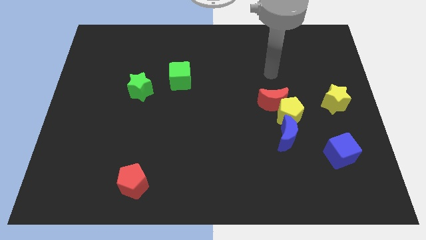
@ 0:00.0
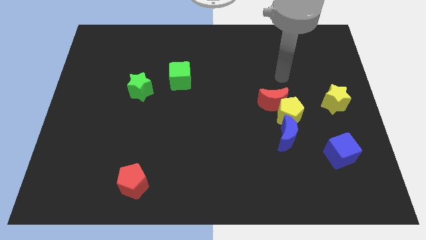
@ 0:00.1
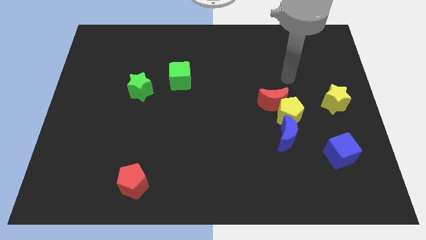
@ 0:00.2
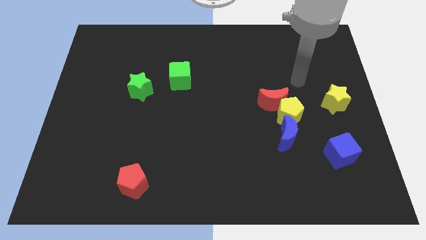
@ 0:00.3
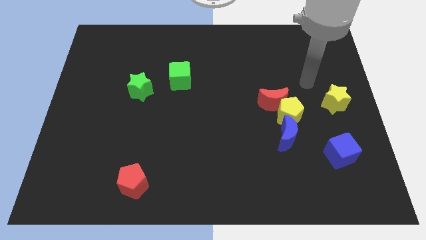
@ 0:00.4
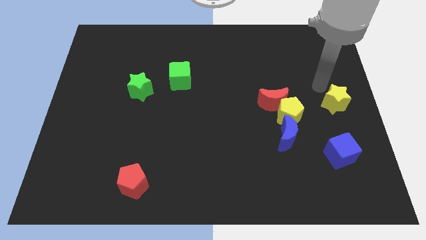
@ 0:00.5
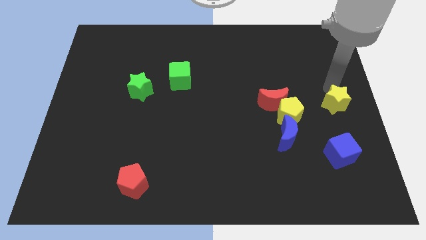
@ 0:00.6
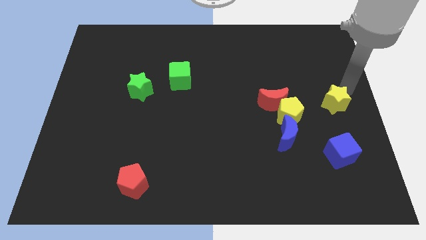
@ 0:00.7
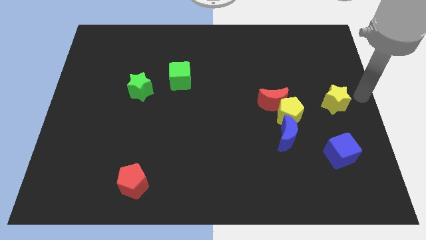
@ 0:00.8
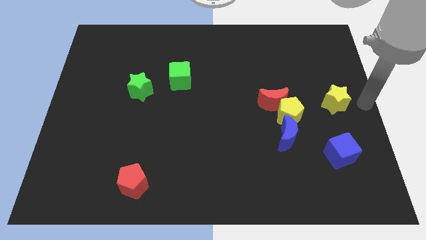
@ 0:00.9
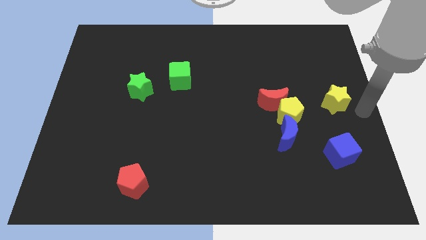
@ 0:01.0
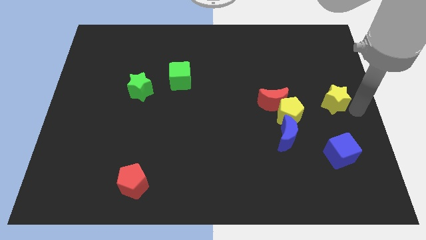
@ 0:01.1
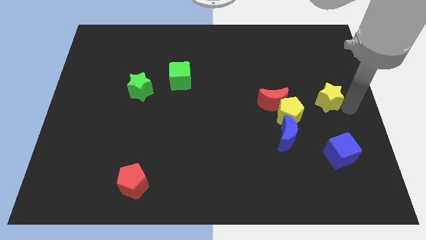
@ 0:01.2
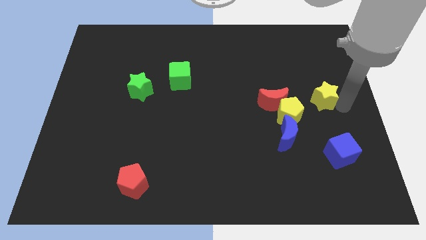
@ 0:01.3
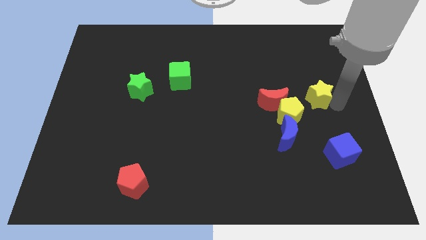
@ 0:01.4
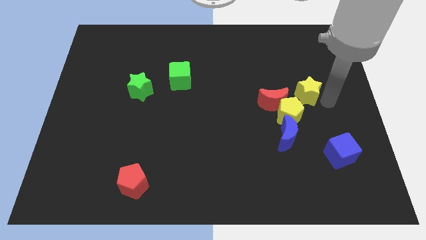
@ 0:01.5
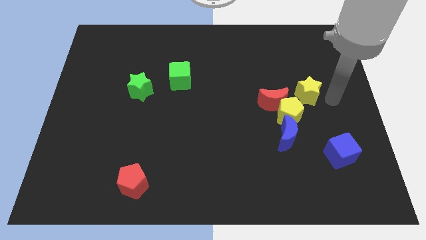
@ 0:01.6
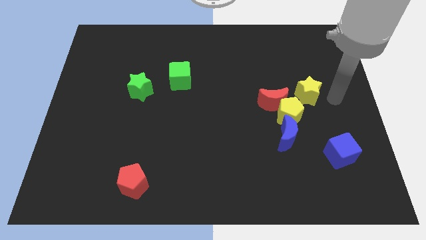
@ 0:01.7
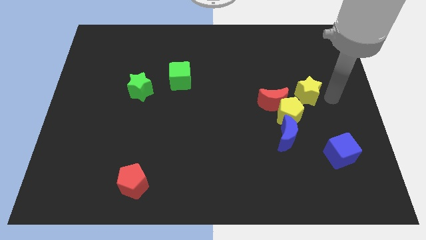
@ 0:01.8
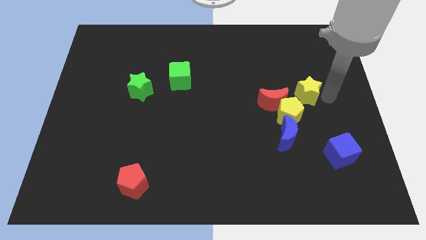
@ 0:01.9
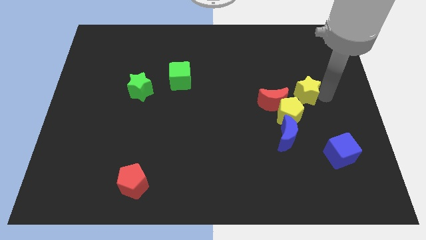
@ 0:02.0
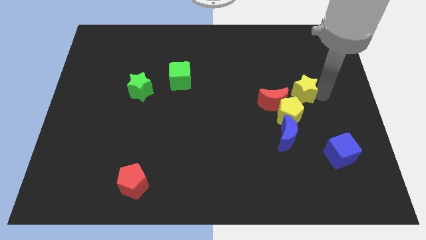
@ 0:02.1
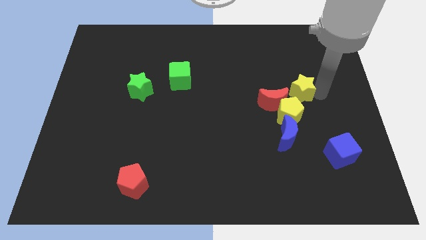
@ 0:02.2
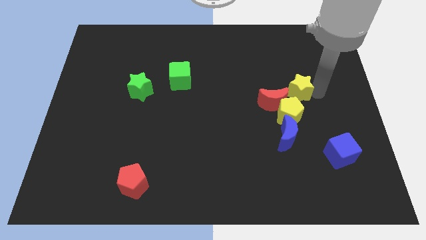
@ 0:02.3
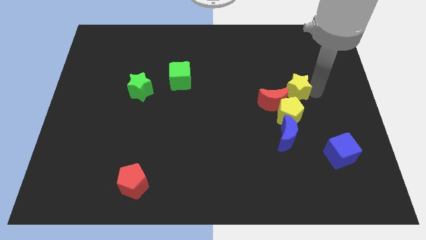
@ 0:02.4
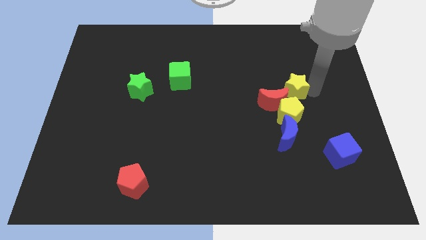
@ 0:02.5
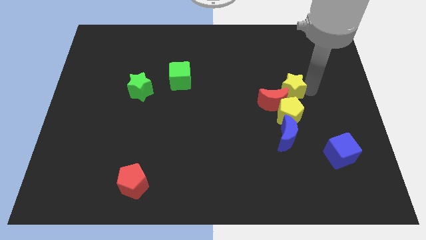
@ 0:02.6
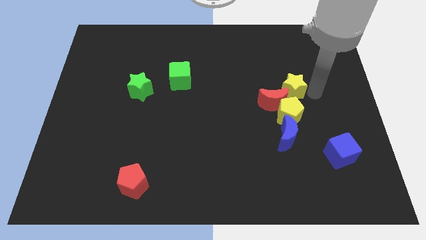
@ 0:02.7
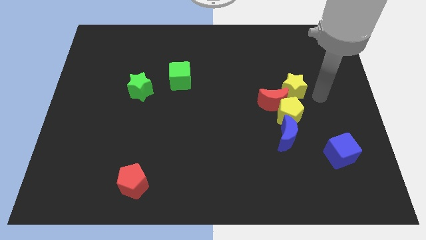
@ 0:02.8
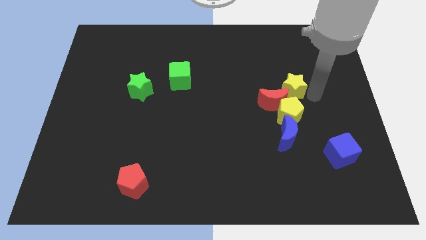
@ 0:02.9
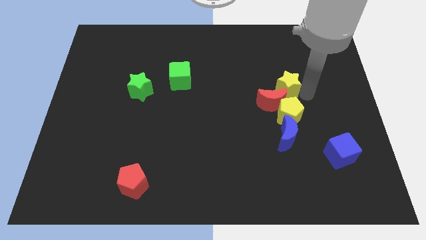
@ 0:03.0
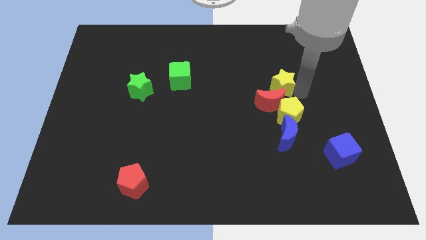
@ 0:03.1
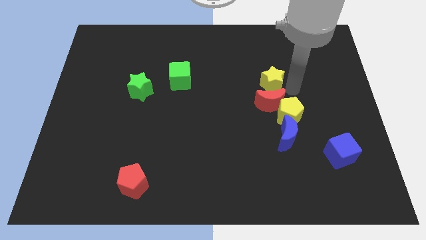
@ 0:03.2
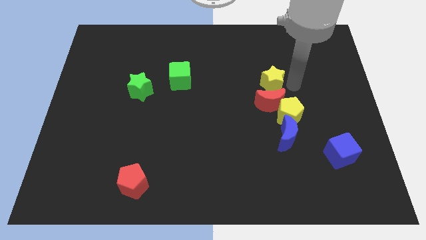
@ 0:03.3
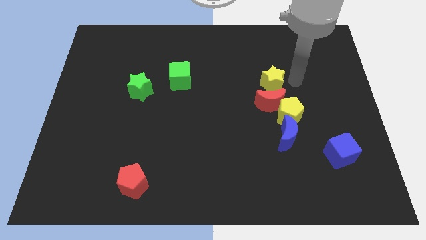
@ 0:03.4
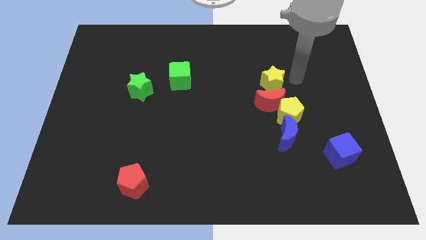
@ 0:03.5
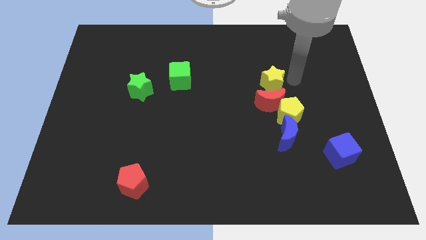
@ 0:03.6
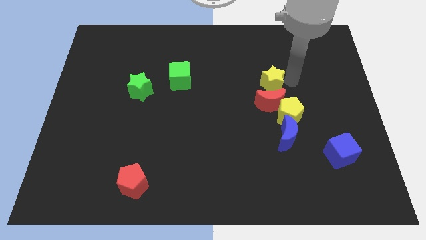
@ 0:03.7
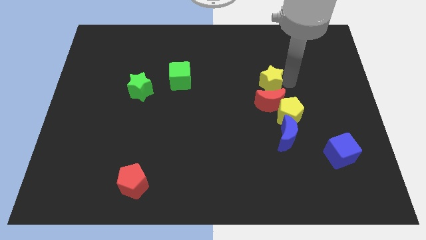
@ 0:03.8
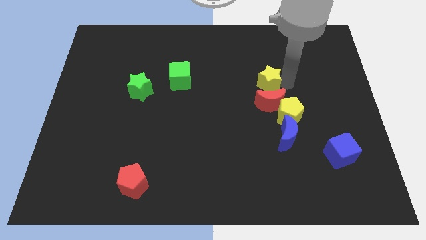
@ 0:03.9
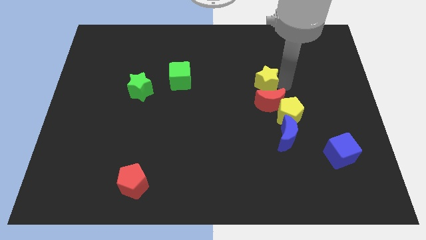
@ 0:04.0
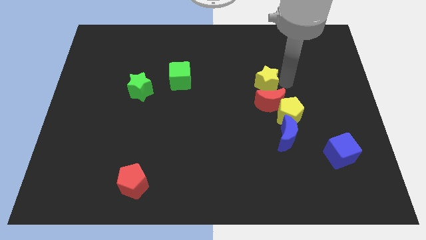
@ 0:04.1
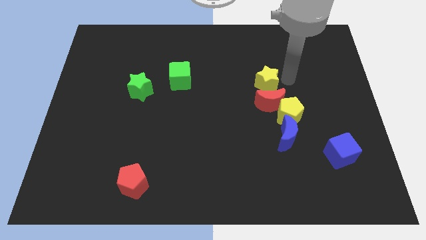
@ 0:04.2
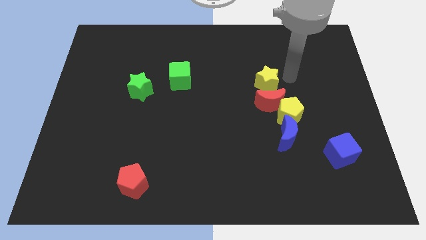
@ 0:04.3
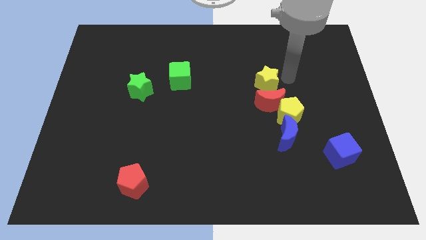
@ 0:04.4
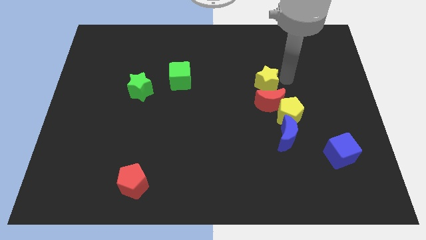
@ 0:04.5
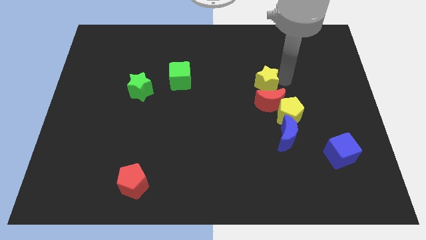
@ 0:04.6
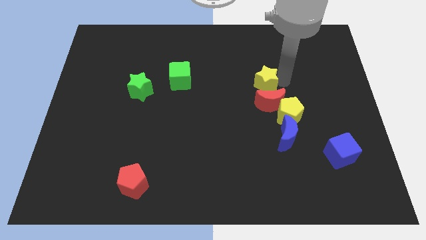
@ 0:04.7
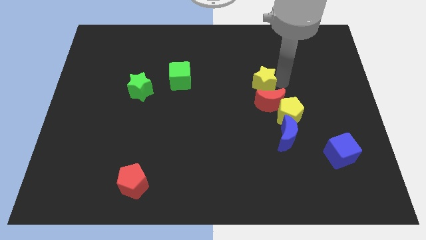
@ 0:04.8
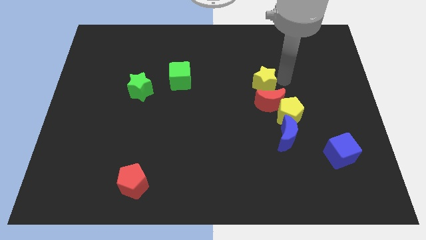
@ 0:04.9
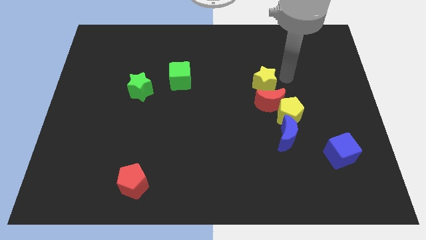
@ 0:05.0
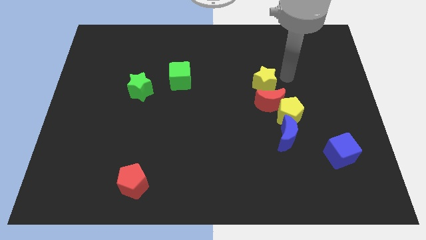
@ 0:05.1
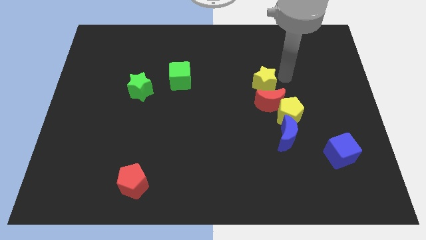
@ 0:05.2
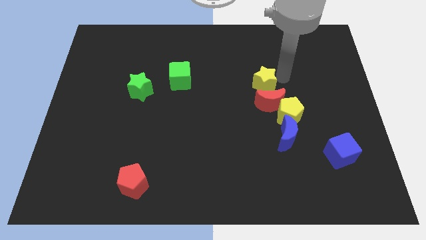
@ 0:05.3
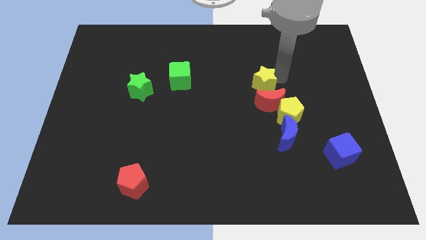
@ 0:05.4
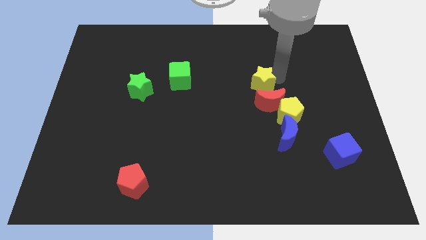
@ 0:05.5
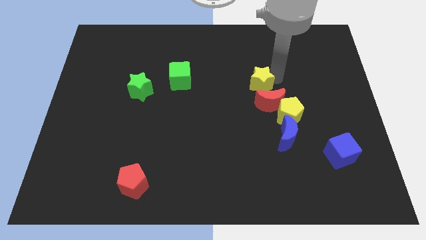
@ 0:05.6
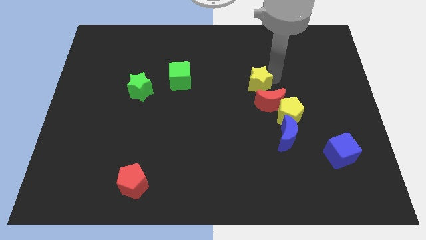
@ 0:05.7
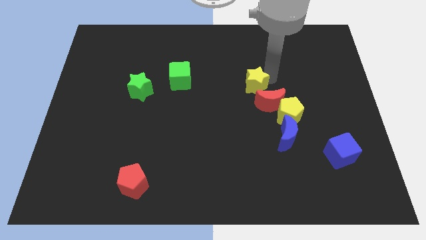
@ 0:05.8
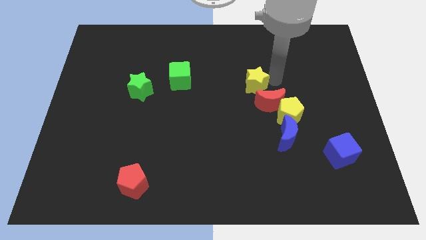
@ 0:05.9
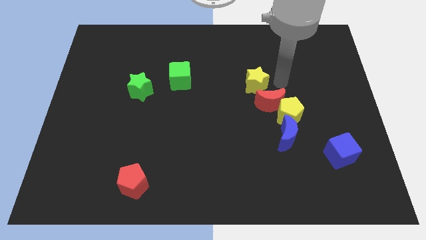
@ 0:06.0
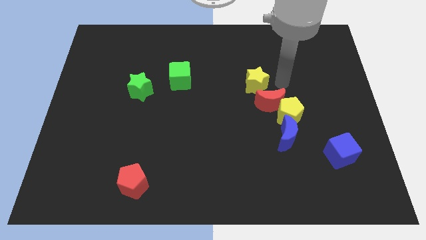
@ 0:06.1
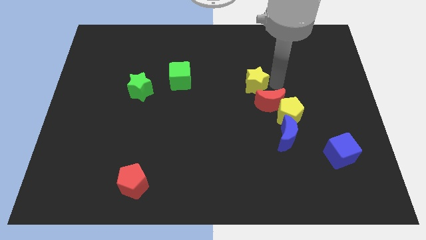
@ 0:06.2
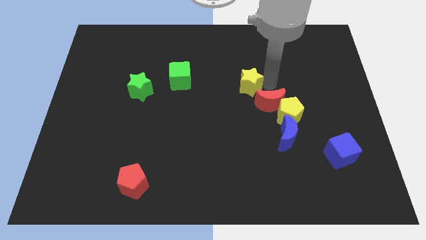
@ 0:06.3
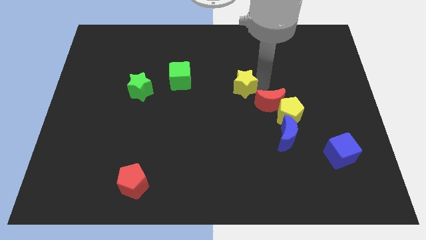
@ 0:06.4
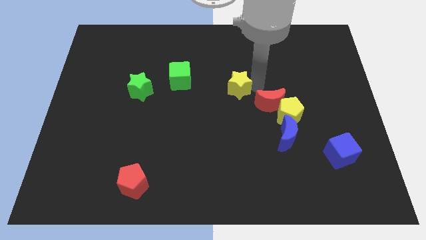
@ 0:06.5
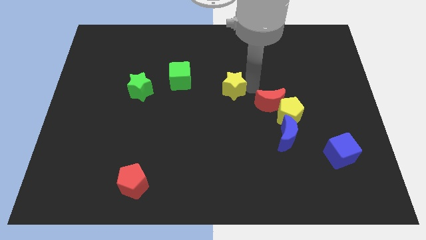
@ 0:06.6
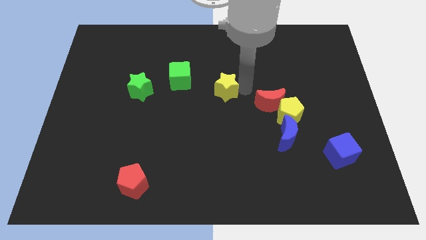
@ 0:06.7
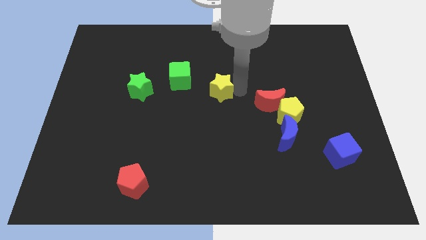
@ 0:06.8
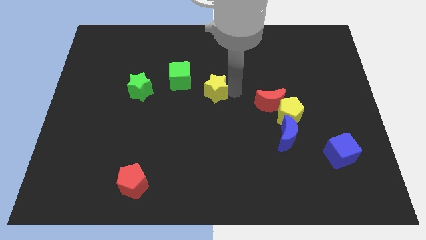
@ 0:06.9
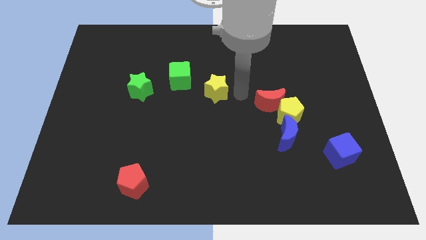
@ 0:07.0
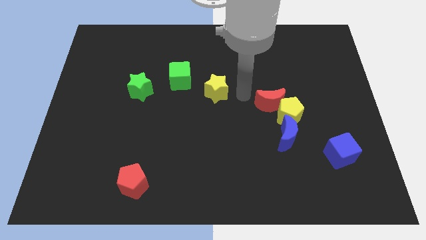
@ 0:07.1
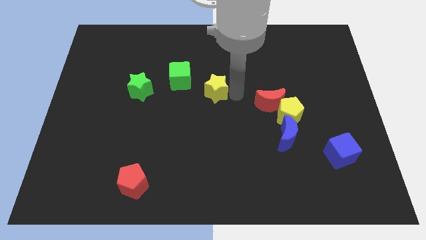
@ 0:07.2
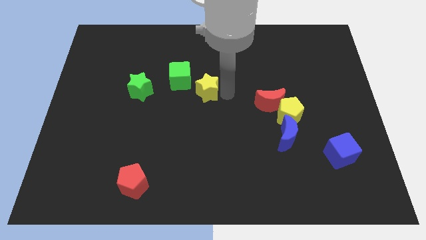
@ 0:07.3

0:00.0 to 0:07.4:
put the yellow star to the right of the green star

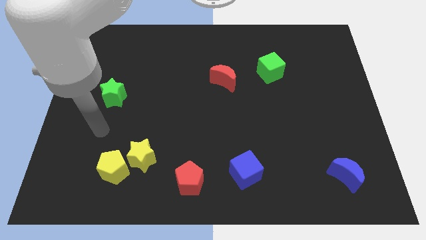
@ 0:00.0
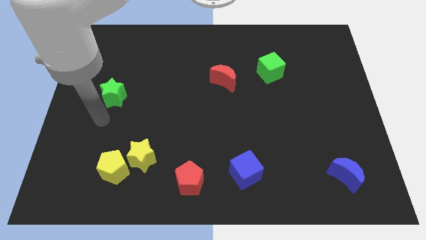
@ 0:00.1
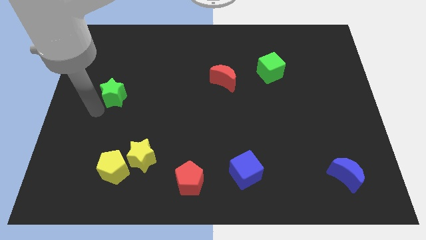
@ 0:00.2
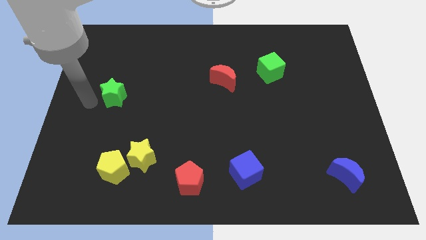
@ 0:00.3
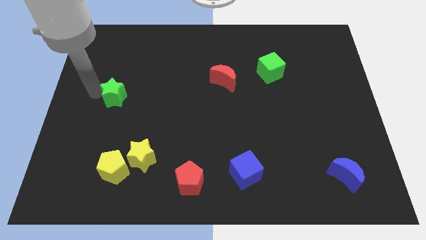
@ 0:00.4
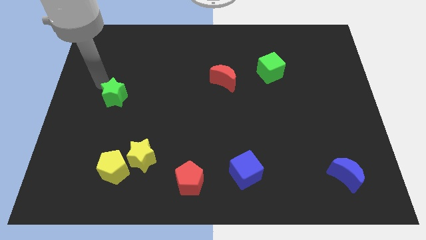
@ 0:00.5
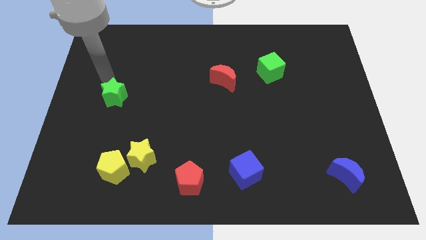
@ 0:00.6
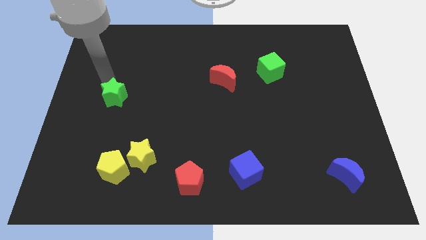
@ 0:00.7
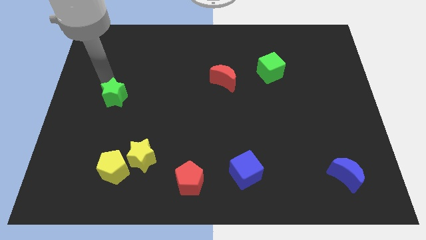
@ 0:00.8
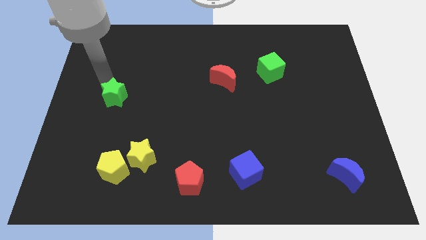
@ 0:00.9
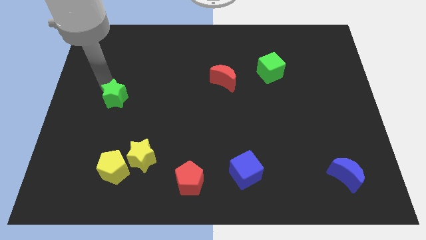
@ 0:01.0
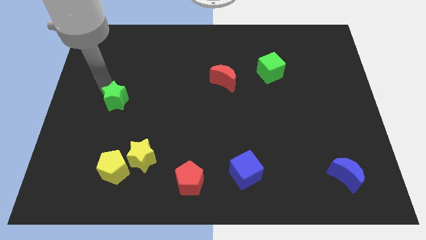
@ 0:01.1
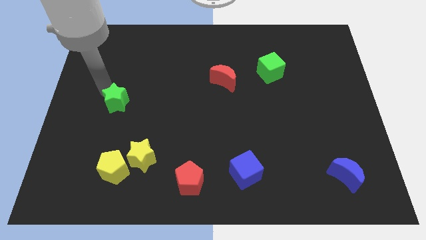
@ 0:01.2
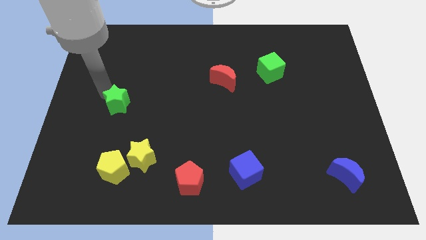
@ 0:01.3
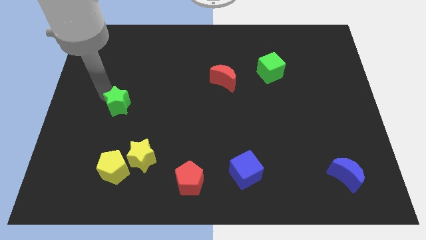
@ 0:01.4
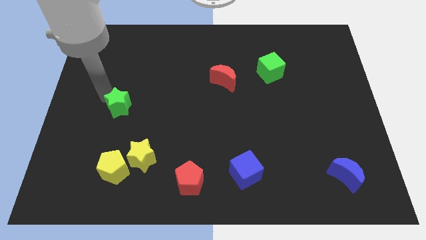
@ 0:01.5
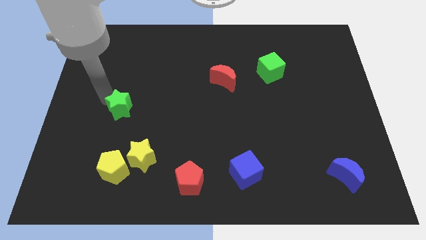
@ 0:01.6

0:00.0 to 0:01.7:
slide the green star to the top side of the yellow pentagon
